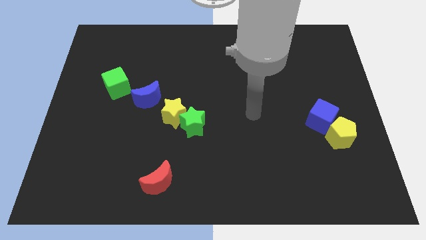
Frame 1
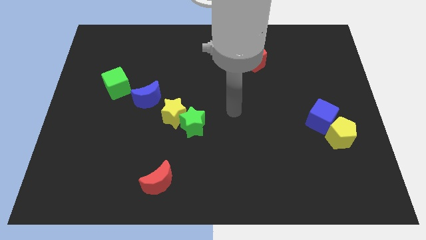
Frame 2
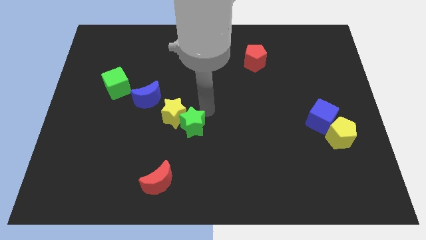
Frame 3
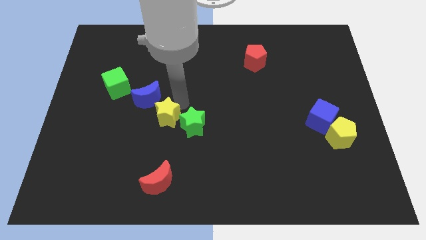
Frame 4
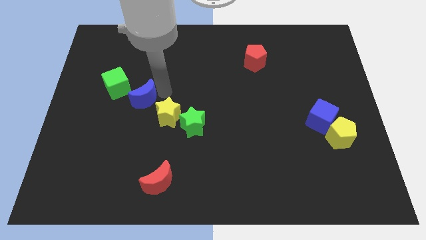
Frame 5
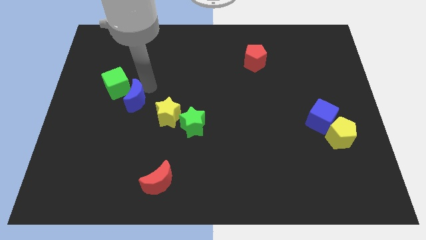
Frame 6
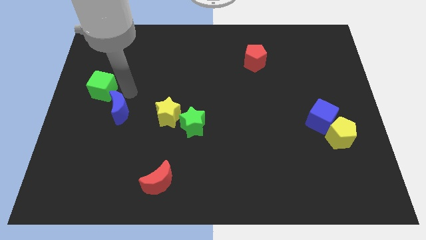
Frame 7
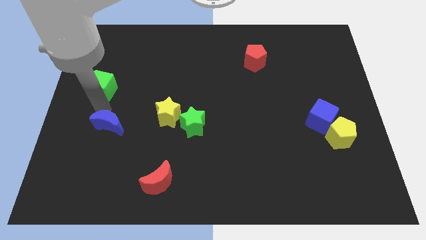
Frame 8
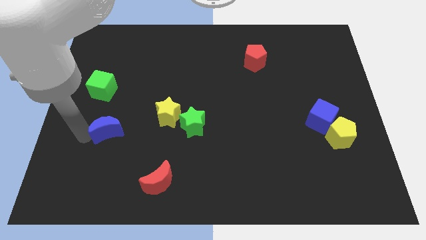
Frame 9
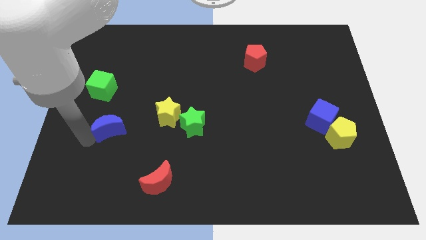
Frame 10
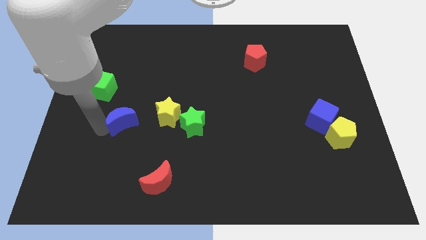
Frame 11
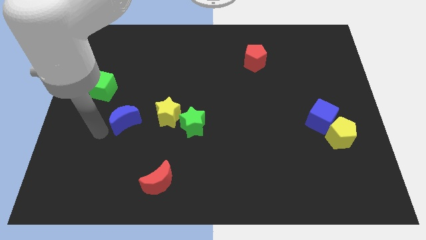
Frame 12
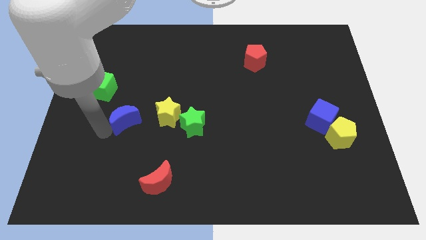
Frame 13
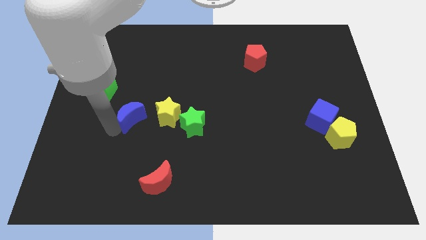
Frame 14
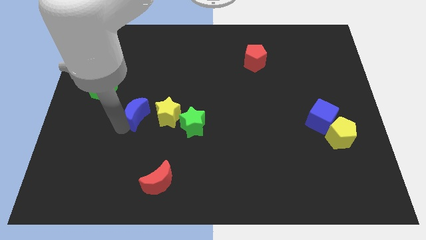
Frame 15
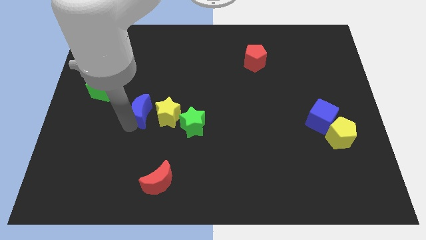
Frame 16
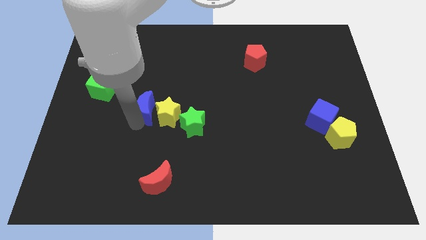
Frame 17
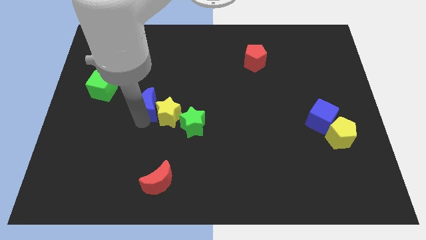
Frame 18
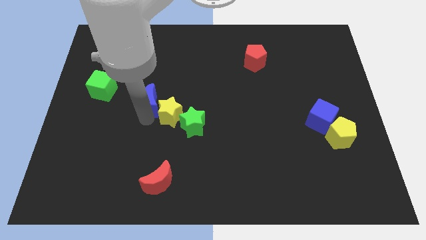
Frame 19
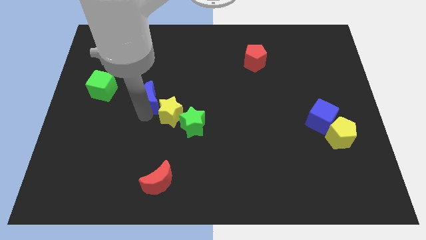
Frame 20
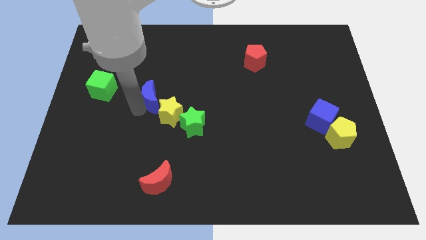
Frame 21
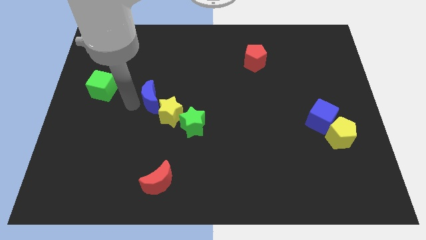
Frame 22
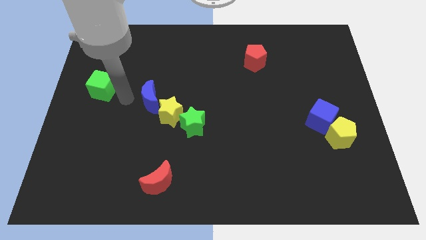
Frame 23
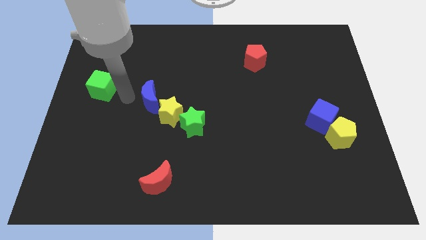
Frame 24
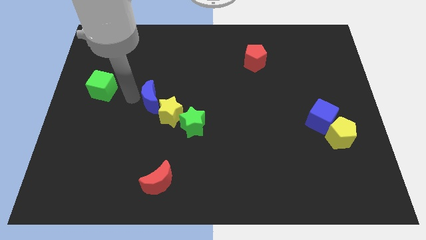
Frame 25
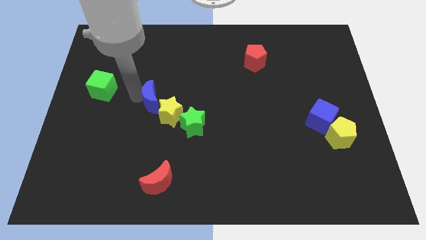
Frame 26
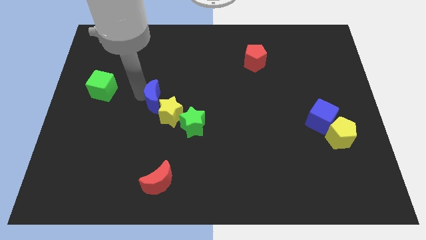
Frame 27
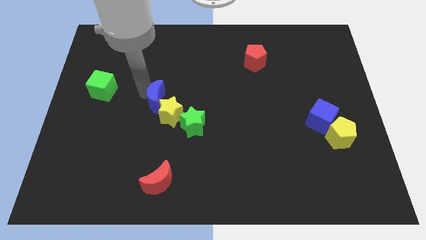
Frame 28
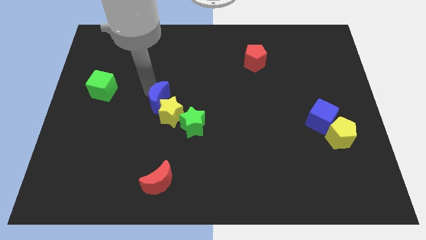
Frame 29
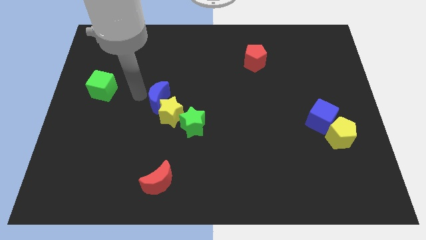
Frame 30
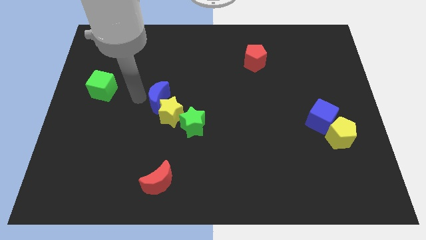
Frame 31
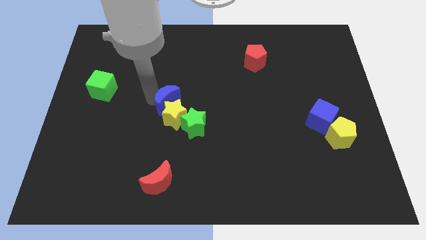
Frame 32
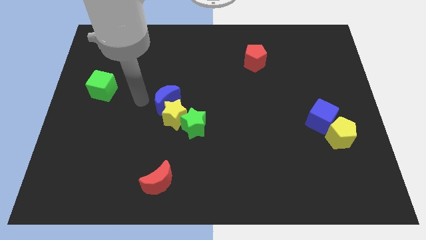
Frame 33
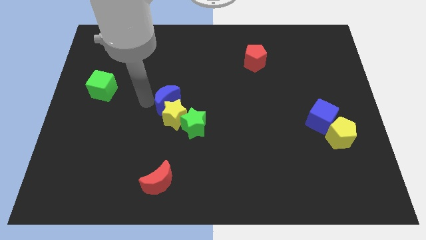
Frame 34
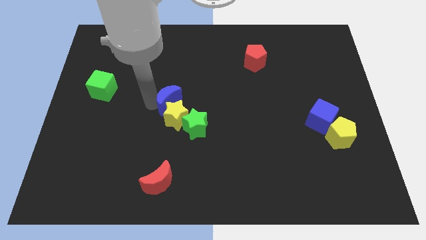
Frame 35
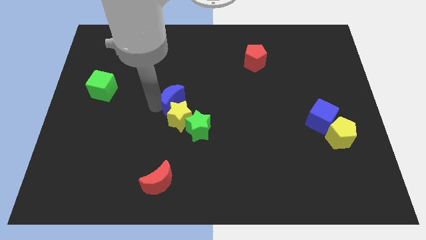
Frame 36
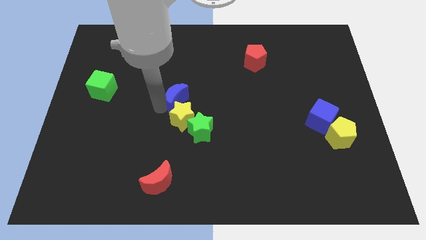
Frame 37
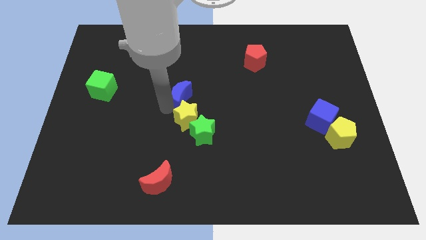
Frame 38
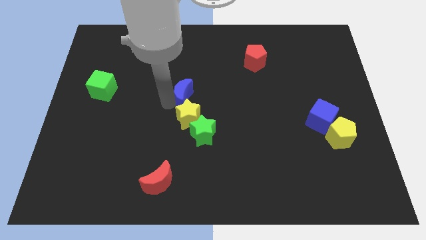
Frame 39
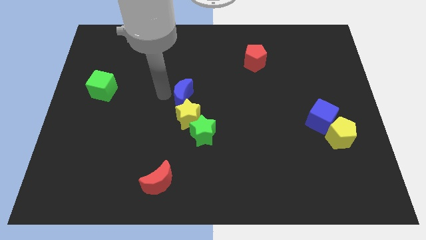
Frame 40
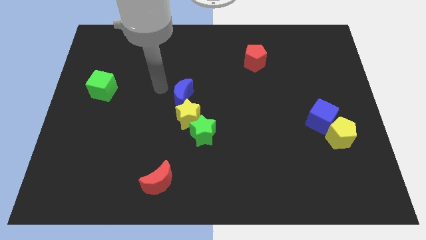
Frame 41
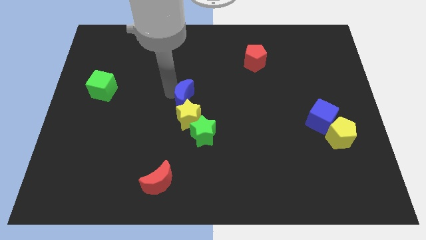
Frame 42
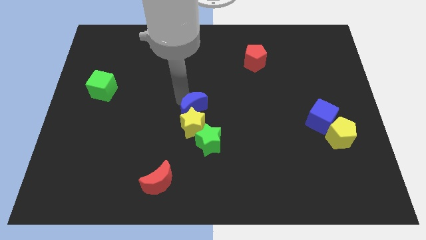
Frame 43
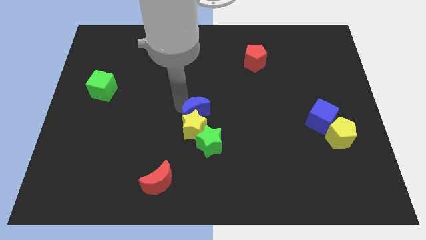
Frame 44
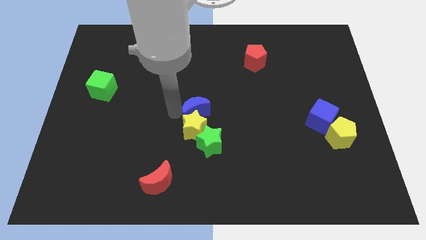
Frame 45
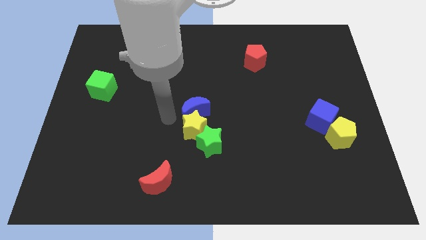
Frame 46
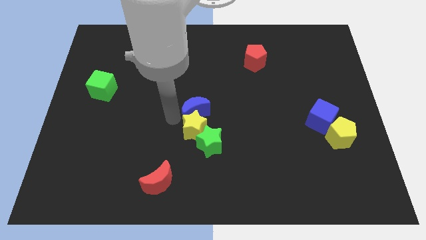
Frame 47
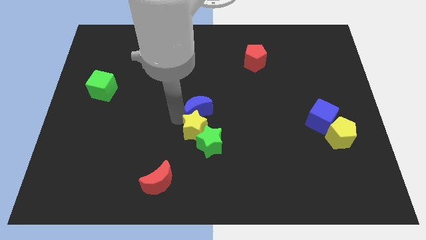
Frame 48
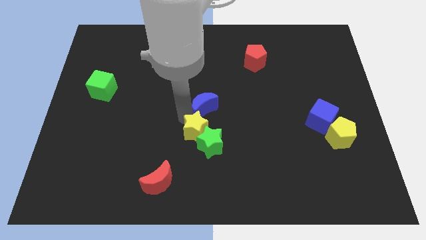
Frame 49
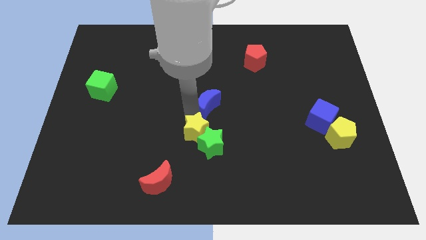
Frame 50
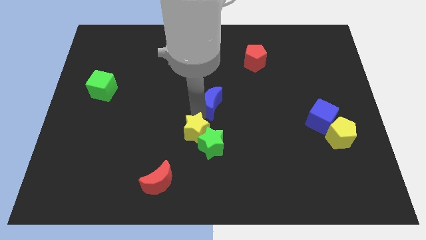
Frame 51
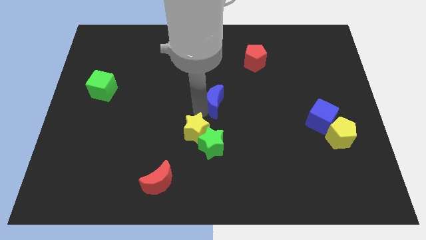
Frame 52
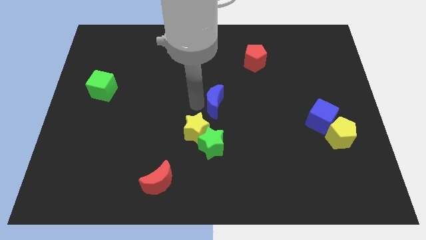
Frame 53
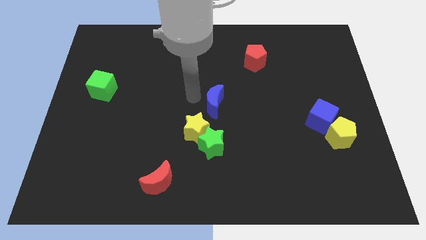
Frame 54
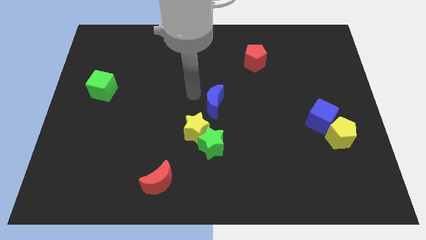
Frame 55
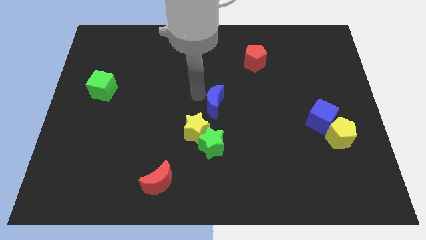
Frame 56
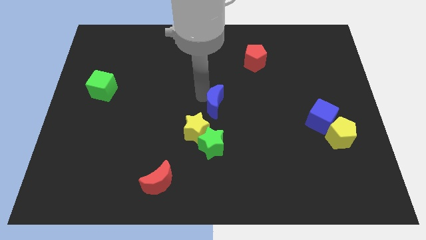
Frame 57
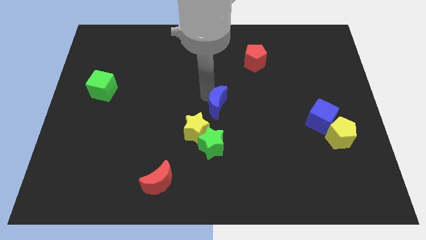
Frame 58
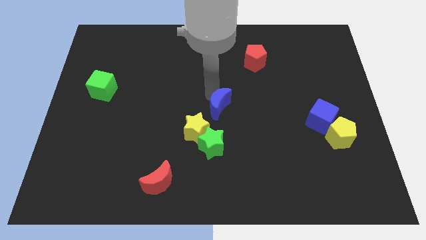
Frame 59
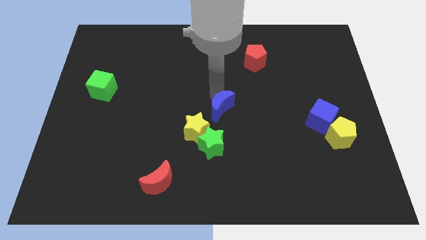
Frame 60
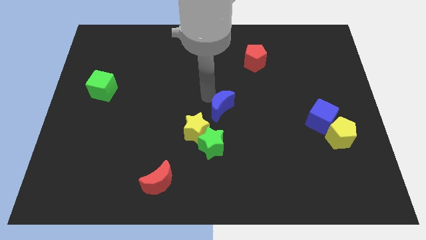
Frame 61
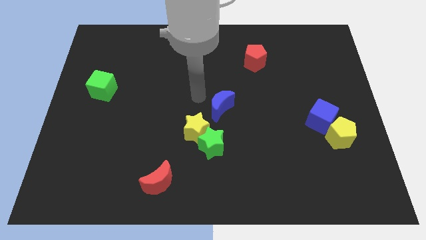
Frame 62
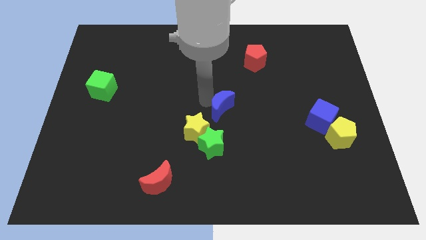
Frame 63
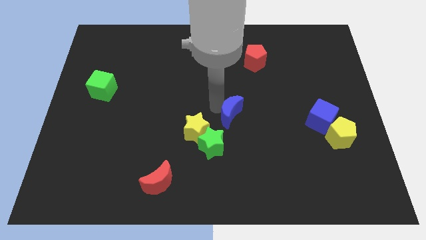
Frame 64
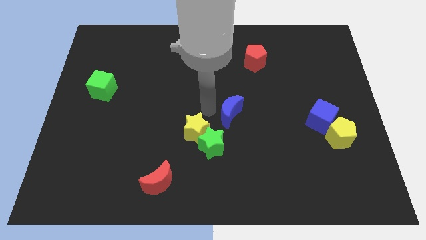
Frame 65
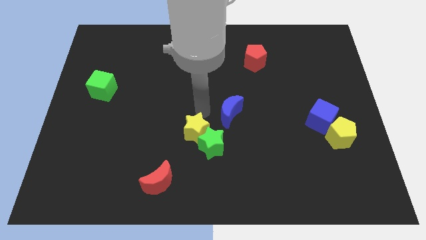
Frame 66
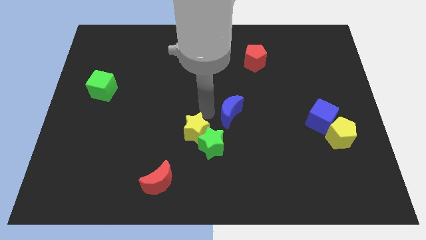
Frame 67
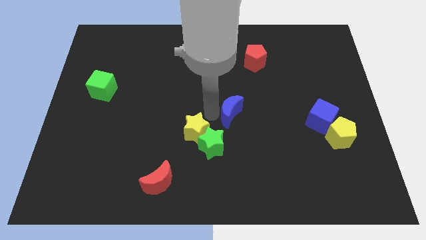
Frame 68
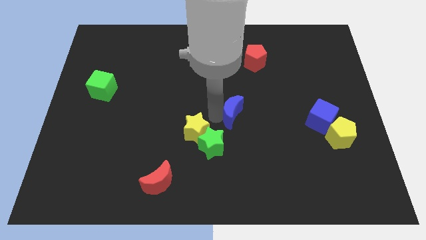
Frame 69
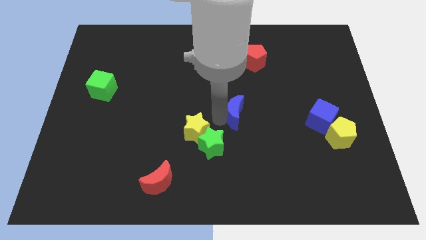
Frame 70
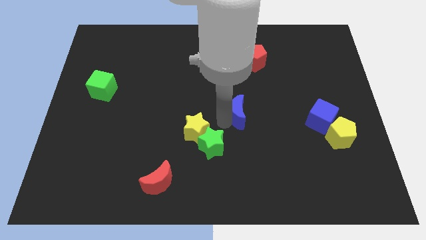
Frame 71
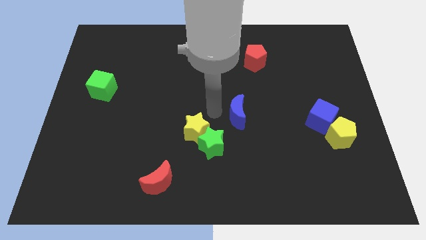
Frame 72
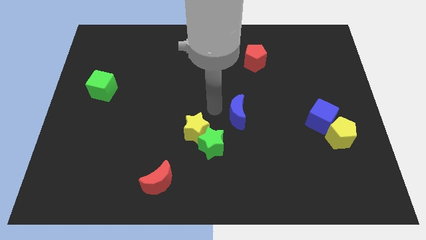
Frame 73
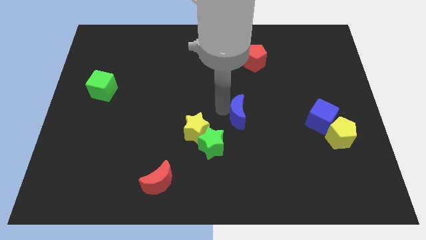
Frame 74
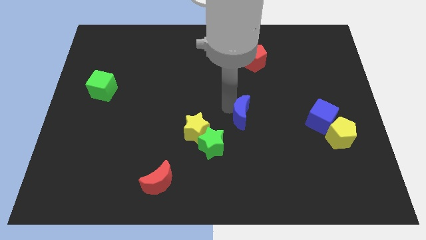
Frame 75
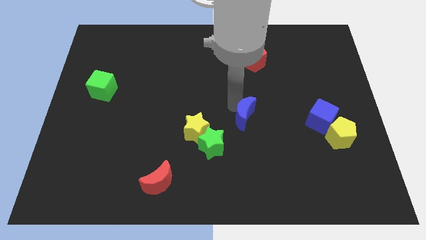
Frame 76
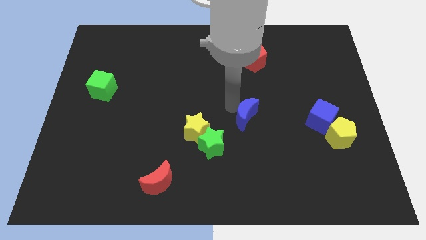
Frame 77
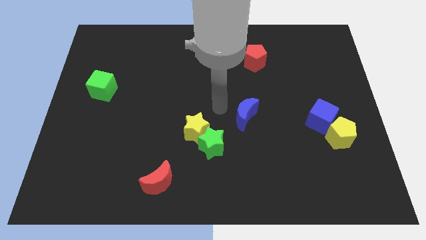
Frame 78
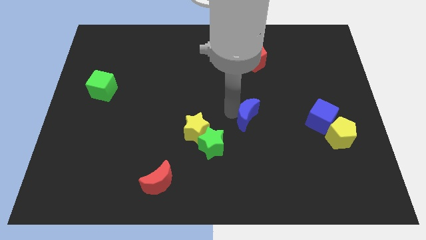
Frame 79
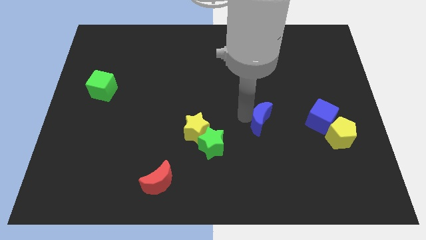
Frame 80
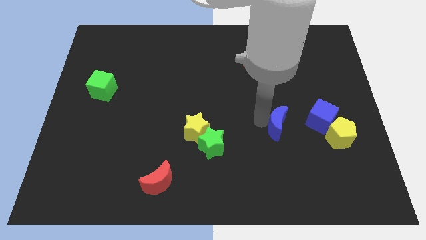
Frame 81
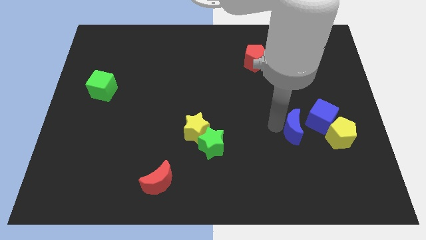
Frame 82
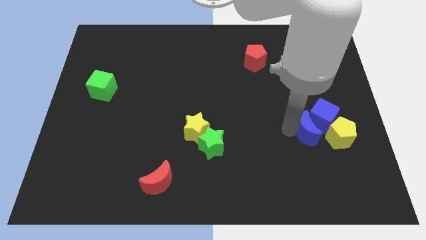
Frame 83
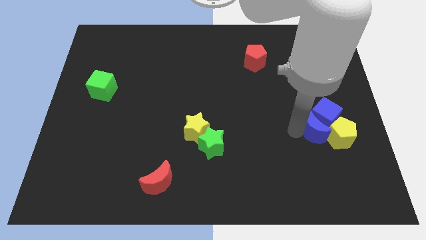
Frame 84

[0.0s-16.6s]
move the blue moon to the yellow pentagon
